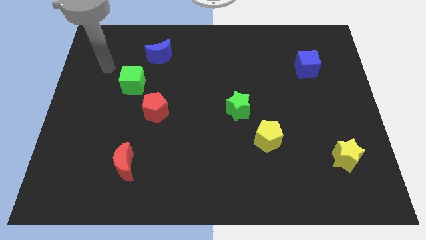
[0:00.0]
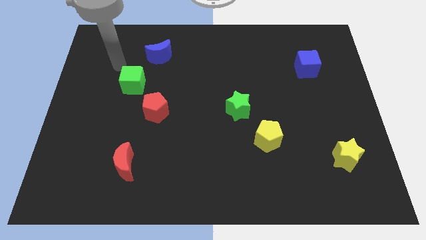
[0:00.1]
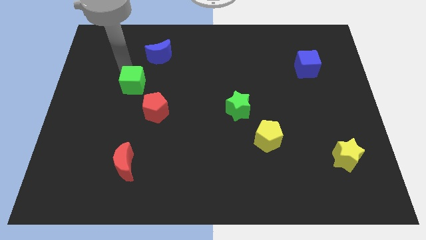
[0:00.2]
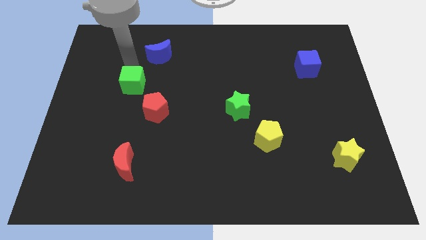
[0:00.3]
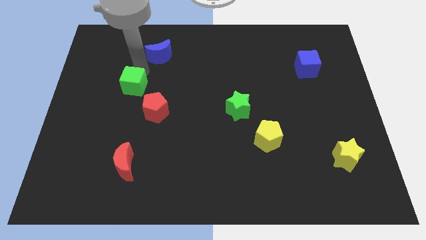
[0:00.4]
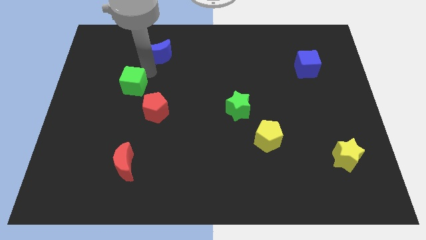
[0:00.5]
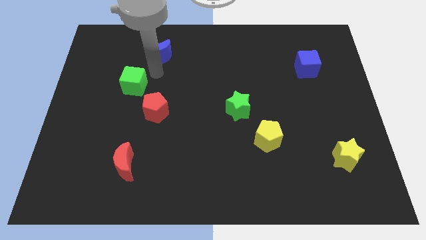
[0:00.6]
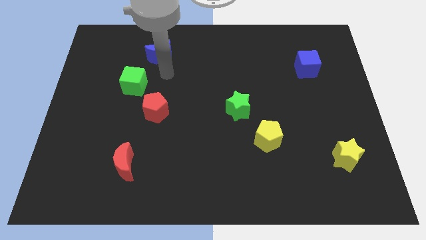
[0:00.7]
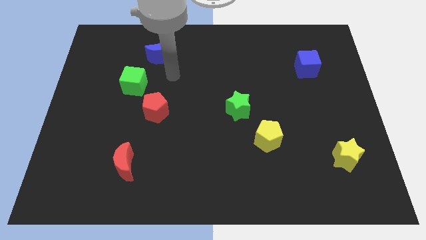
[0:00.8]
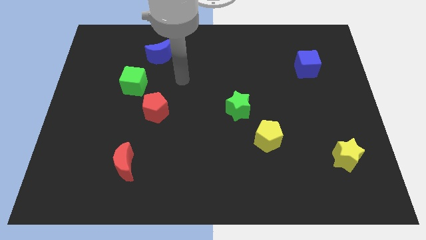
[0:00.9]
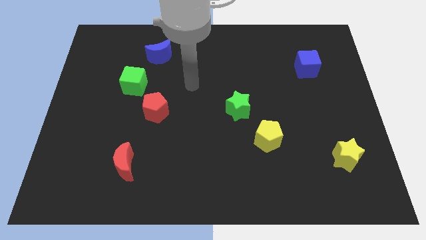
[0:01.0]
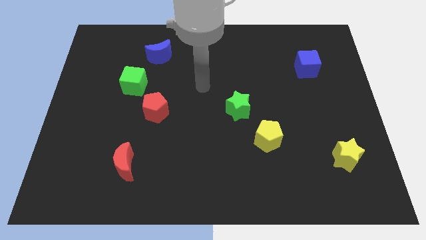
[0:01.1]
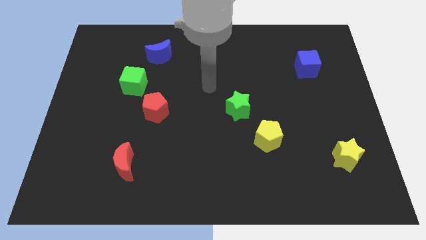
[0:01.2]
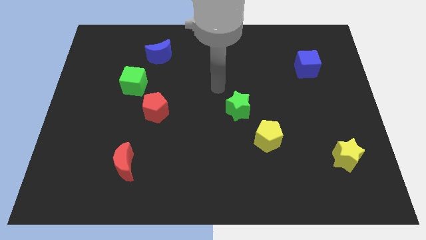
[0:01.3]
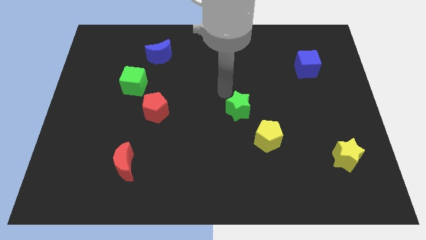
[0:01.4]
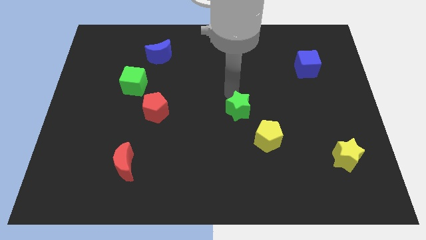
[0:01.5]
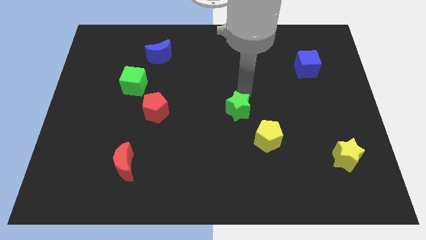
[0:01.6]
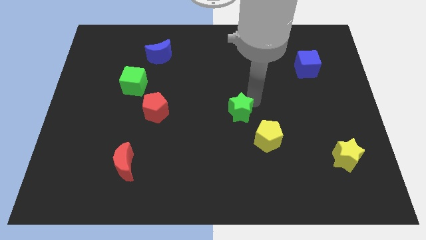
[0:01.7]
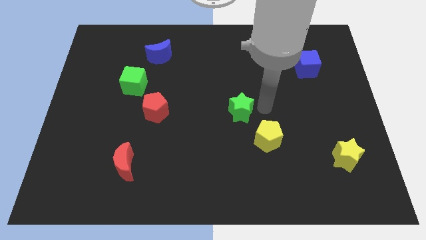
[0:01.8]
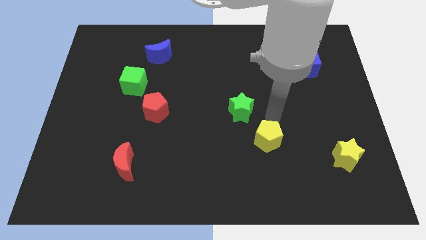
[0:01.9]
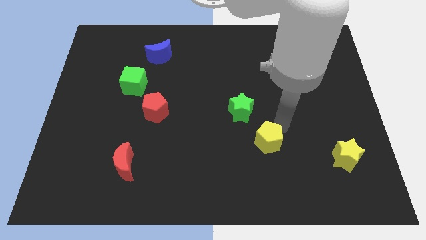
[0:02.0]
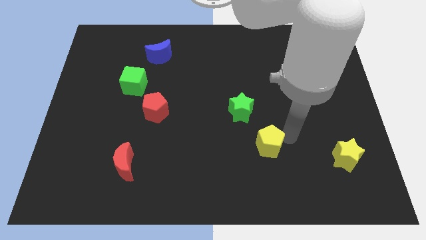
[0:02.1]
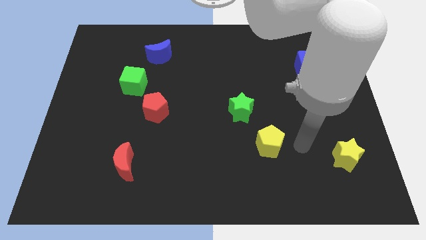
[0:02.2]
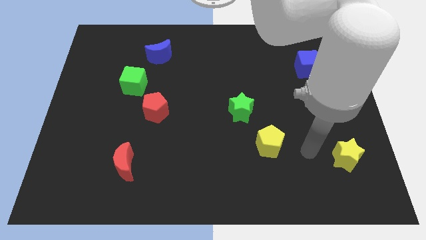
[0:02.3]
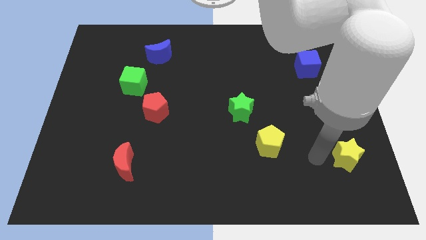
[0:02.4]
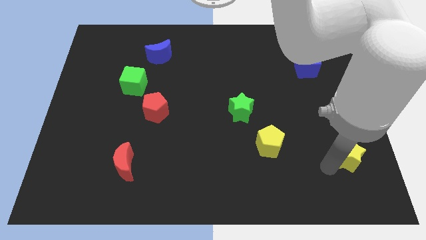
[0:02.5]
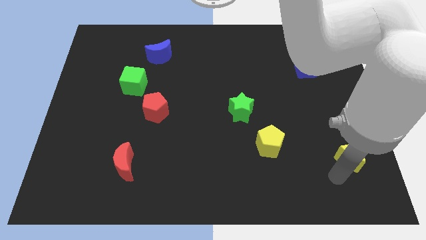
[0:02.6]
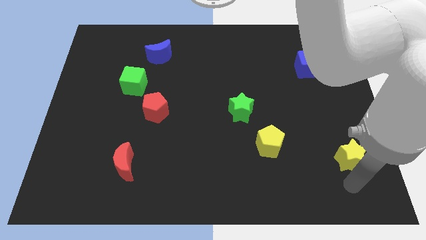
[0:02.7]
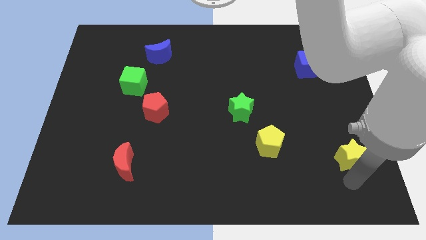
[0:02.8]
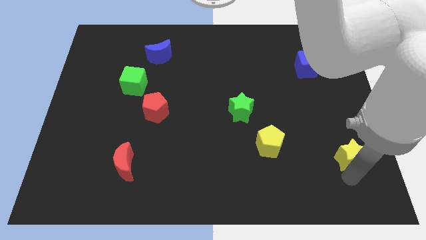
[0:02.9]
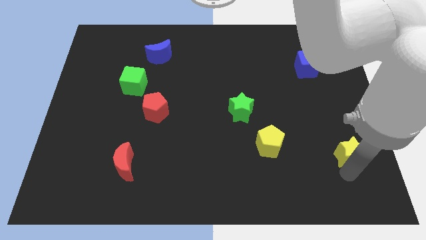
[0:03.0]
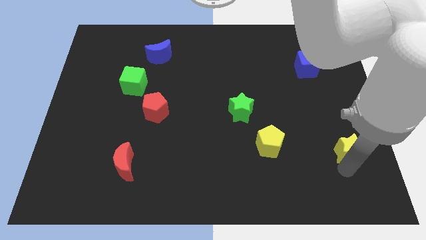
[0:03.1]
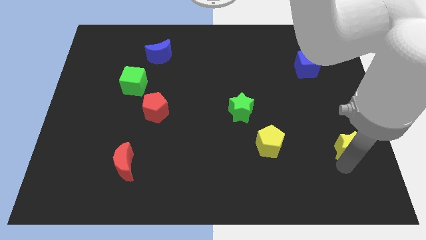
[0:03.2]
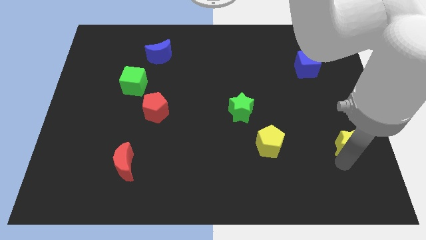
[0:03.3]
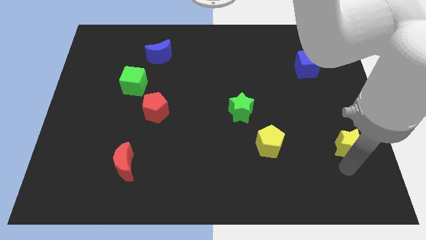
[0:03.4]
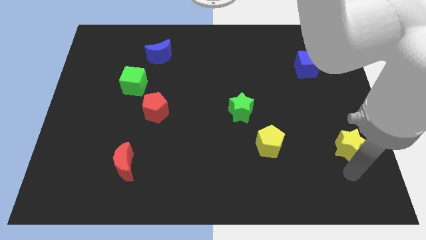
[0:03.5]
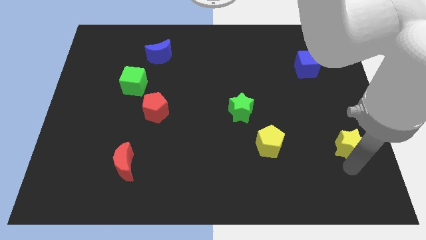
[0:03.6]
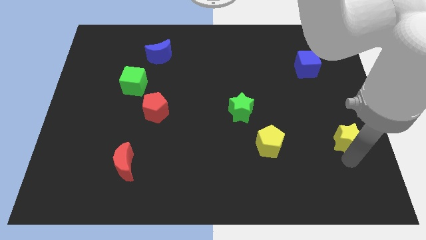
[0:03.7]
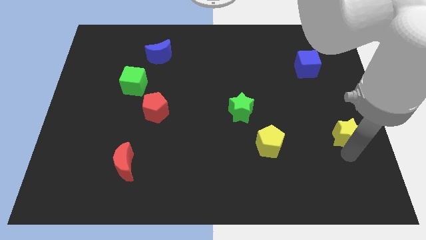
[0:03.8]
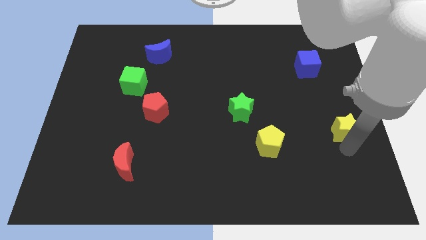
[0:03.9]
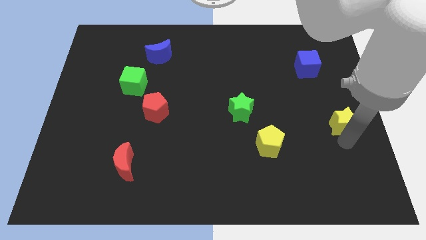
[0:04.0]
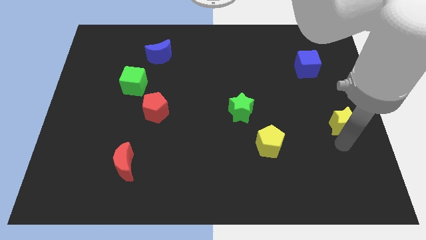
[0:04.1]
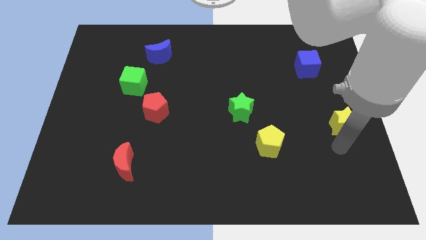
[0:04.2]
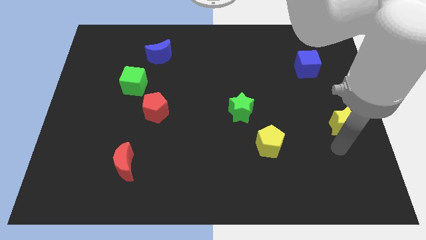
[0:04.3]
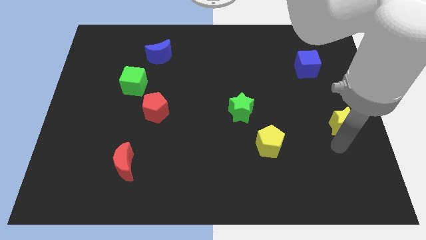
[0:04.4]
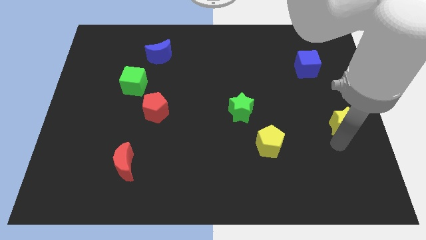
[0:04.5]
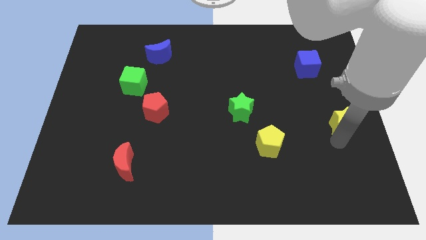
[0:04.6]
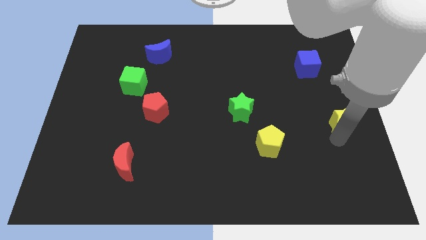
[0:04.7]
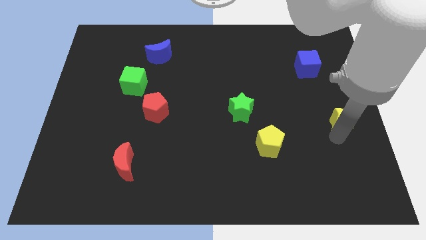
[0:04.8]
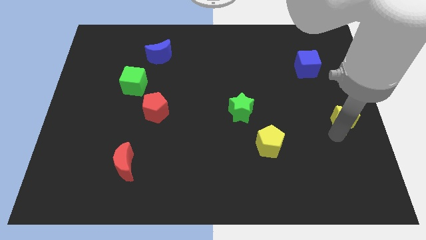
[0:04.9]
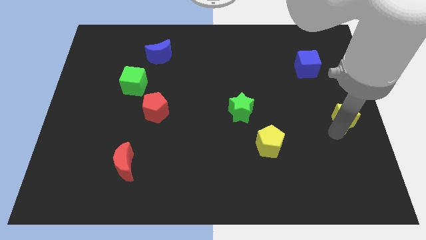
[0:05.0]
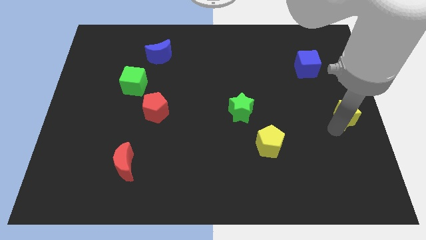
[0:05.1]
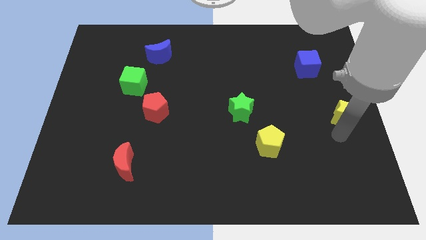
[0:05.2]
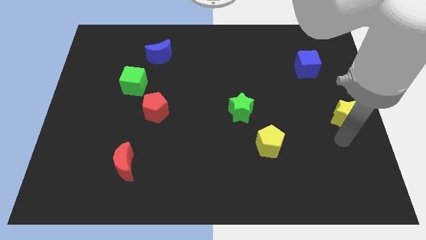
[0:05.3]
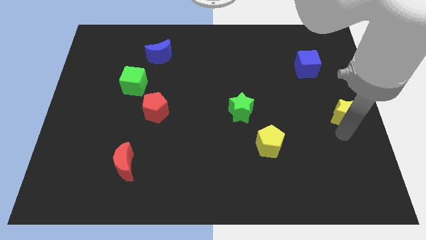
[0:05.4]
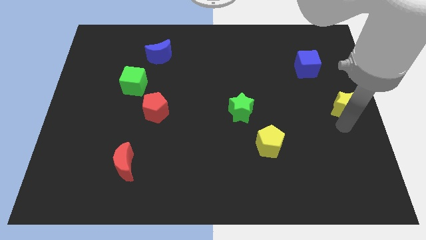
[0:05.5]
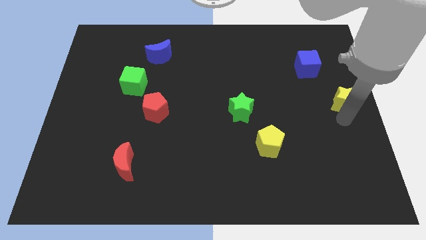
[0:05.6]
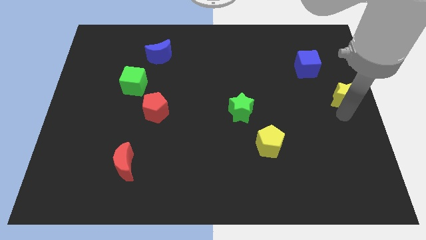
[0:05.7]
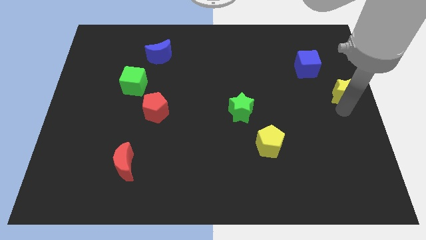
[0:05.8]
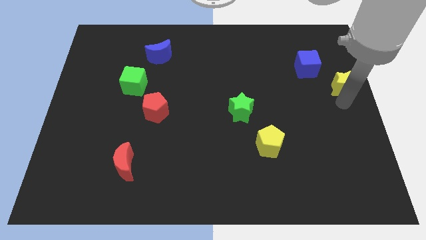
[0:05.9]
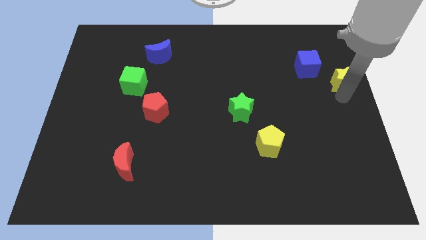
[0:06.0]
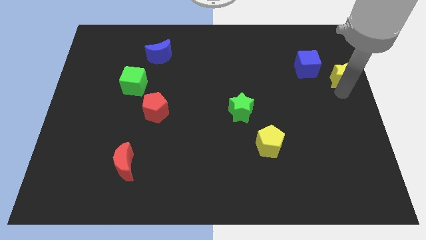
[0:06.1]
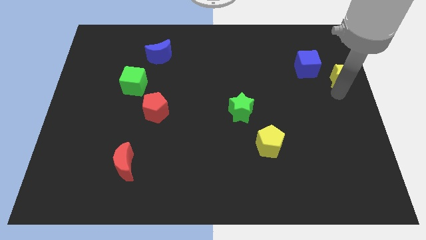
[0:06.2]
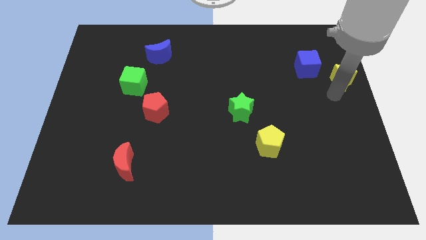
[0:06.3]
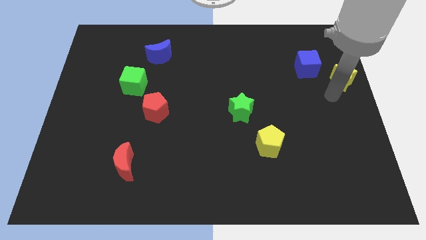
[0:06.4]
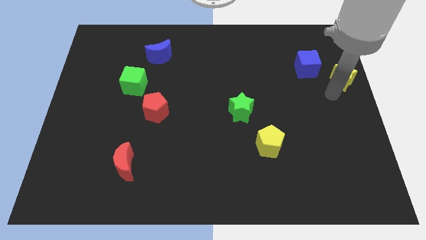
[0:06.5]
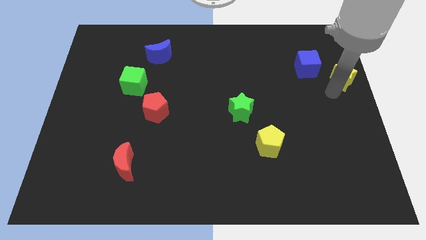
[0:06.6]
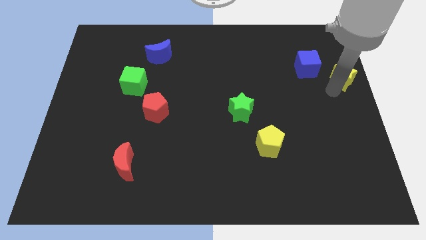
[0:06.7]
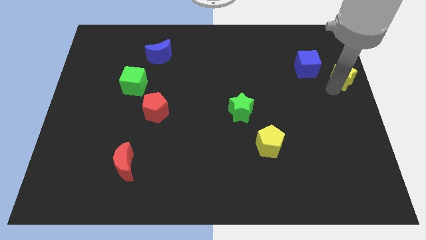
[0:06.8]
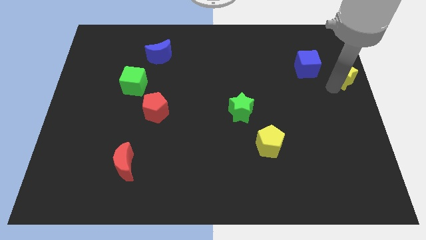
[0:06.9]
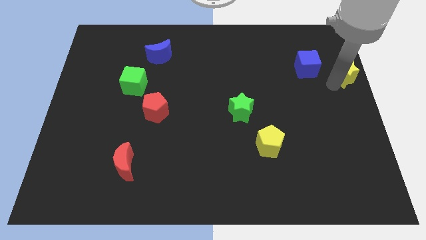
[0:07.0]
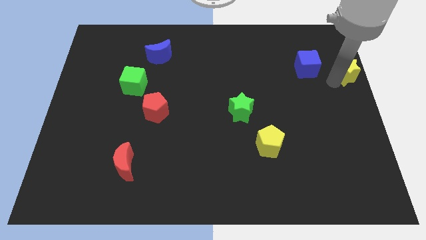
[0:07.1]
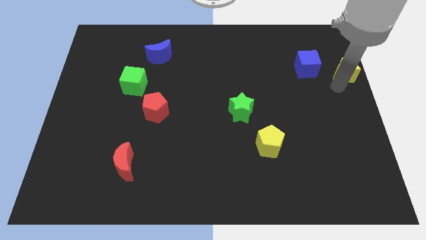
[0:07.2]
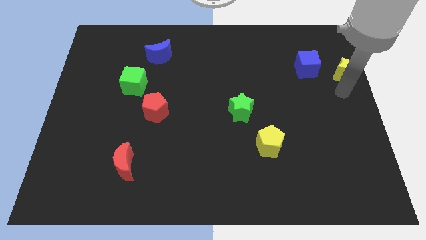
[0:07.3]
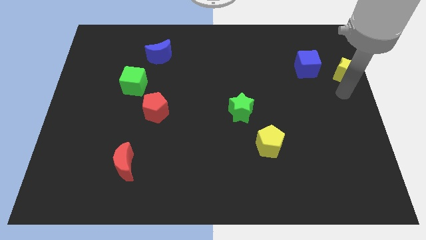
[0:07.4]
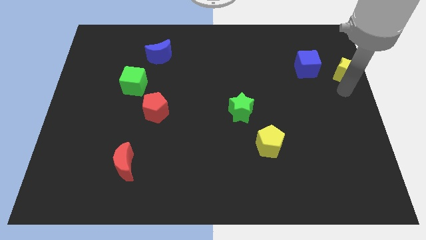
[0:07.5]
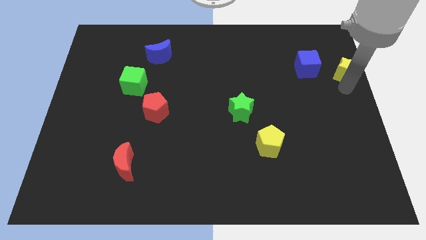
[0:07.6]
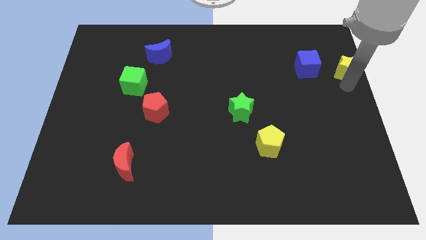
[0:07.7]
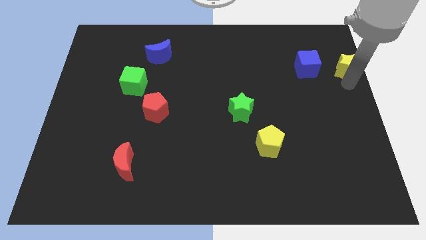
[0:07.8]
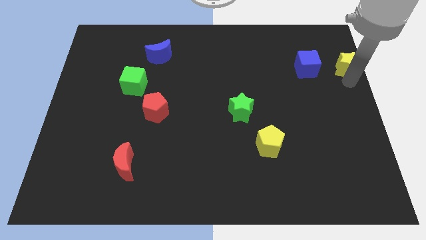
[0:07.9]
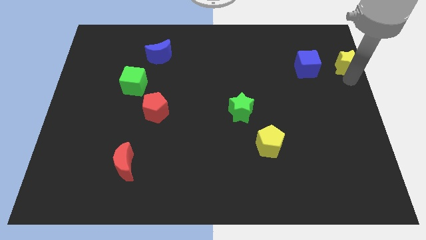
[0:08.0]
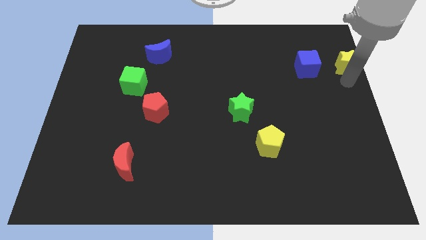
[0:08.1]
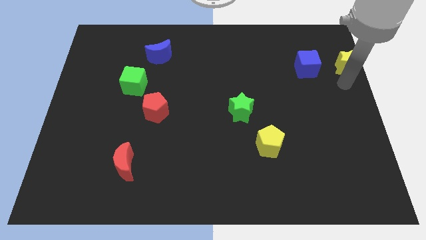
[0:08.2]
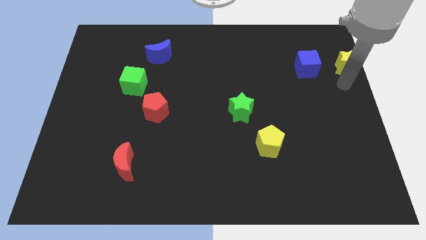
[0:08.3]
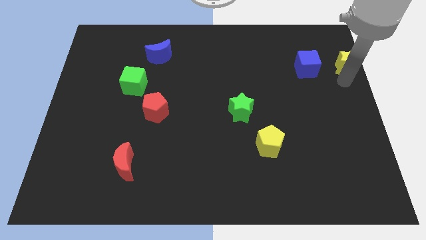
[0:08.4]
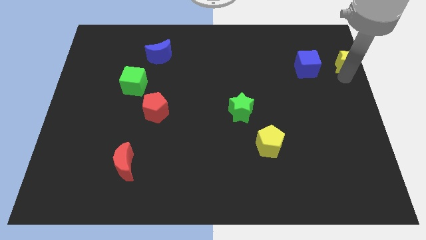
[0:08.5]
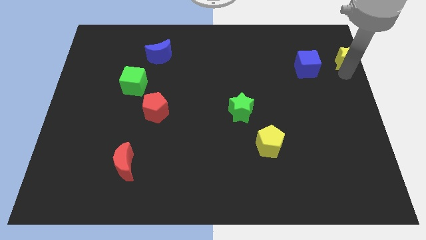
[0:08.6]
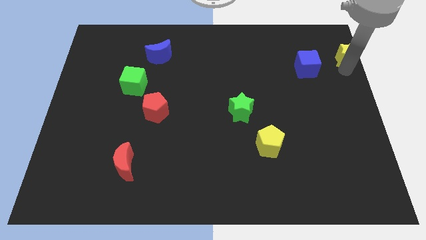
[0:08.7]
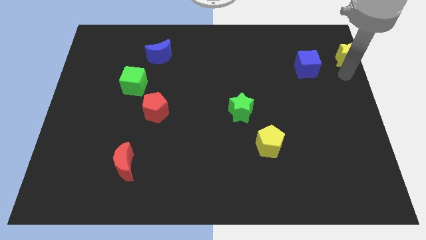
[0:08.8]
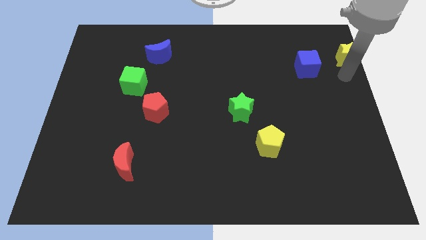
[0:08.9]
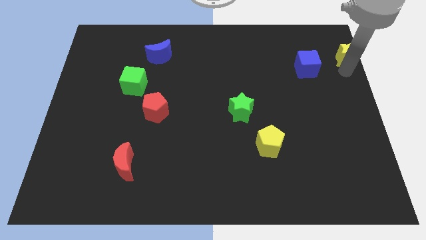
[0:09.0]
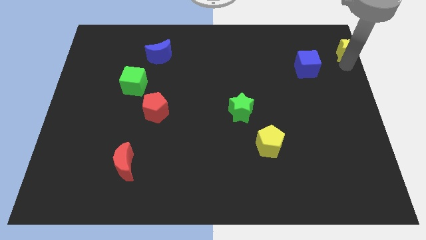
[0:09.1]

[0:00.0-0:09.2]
move the yellow star to the top right of the board
